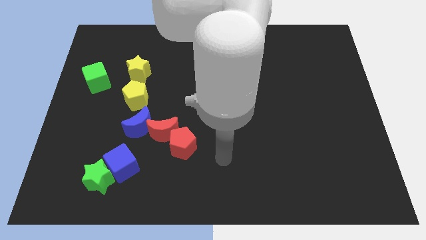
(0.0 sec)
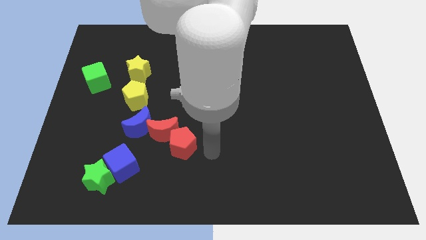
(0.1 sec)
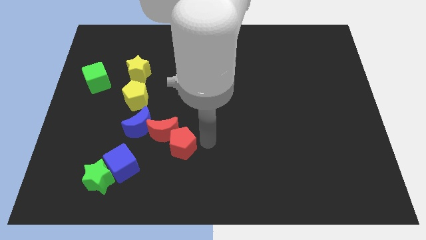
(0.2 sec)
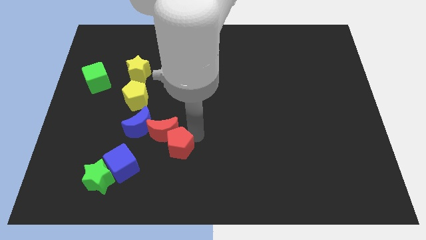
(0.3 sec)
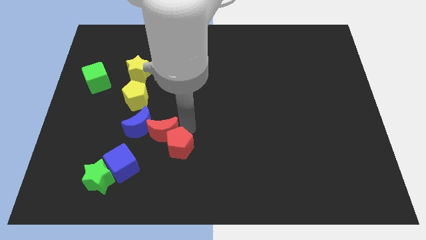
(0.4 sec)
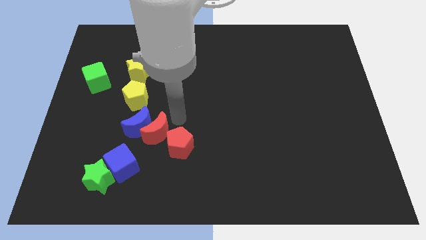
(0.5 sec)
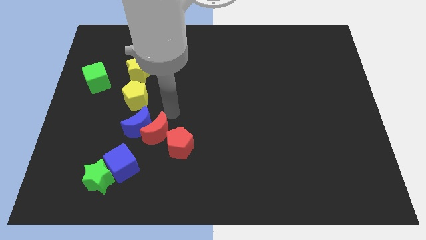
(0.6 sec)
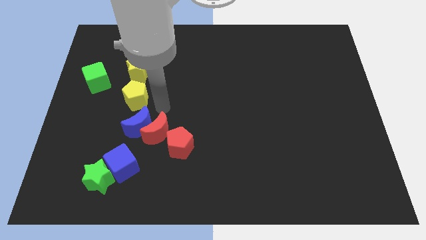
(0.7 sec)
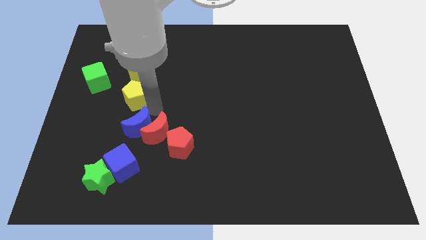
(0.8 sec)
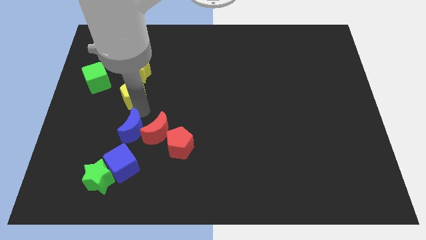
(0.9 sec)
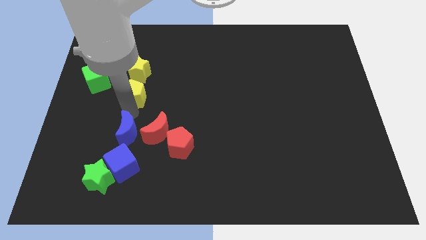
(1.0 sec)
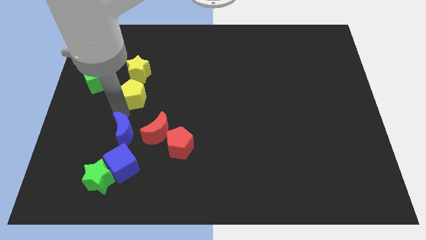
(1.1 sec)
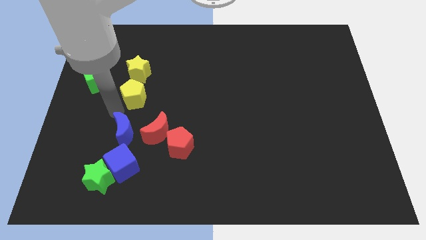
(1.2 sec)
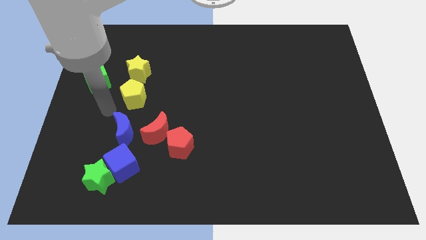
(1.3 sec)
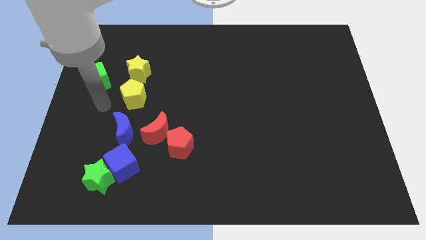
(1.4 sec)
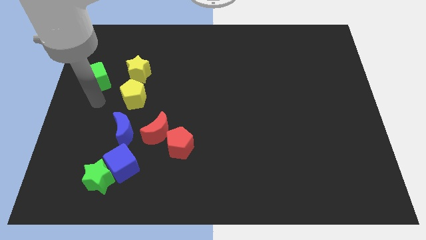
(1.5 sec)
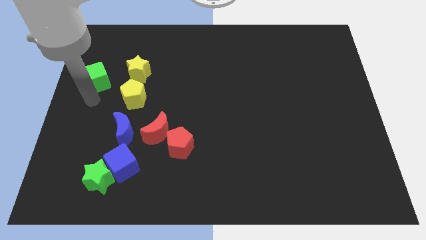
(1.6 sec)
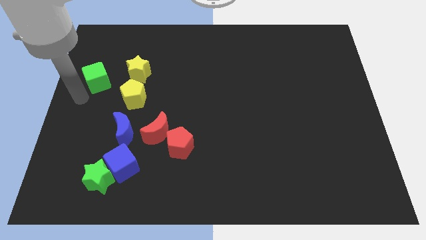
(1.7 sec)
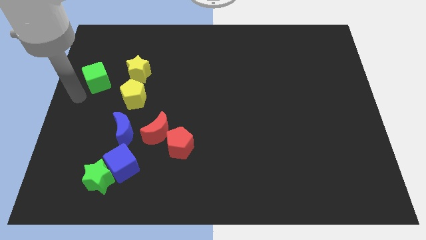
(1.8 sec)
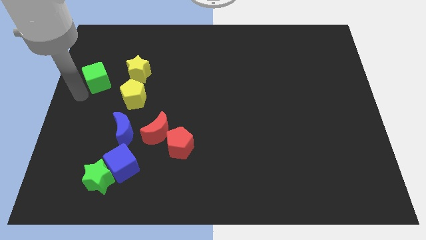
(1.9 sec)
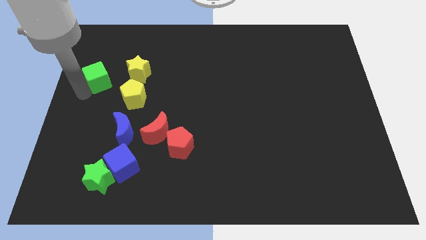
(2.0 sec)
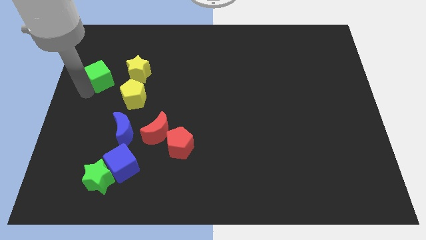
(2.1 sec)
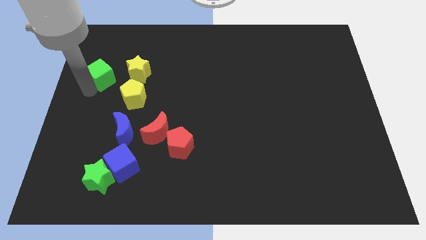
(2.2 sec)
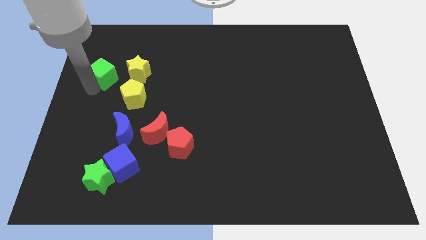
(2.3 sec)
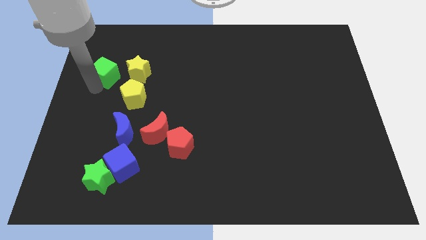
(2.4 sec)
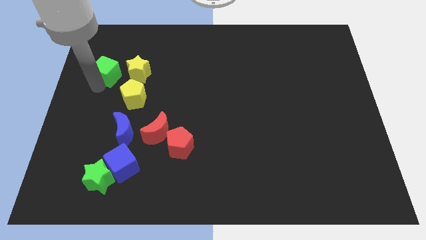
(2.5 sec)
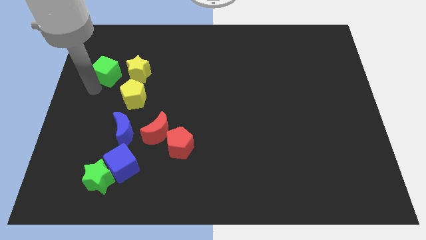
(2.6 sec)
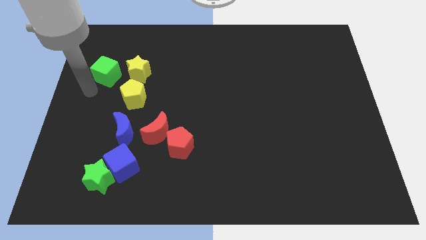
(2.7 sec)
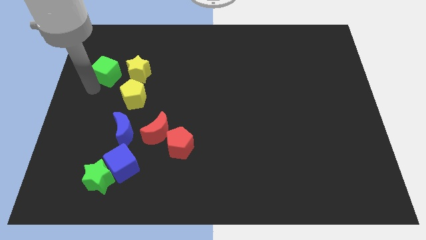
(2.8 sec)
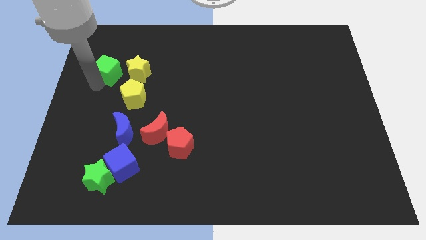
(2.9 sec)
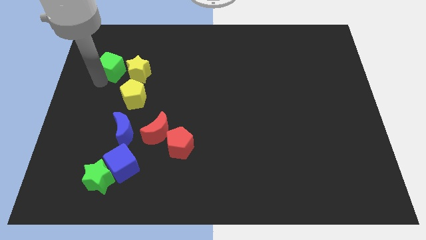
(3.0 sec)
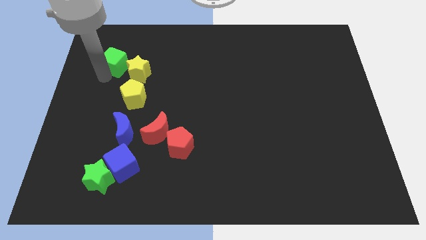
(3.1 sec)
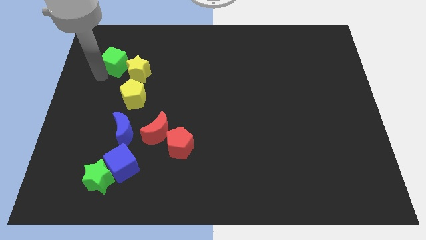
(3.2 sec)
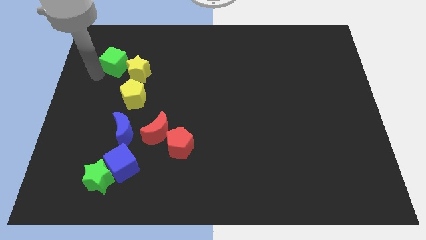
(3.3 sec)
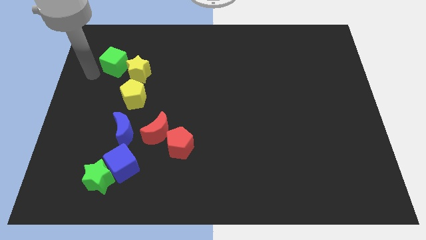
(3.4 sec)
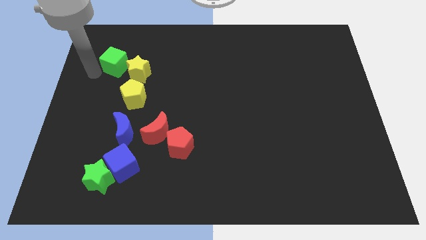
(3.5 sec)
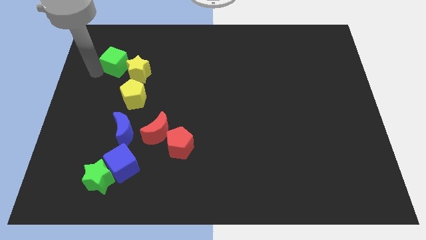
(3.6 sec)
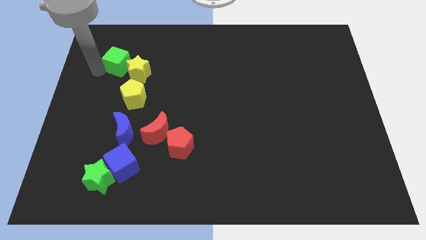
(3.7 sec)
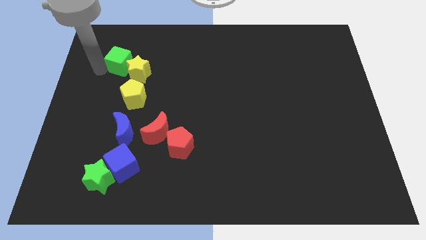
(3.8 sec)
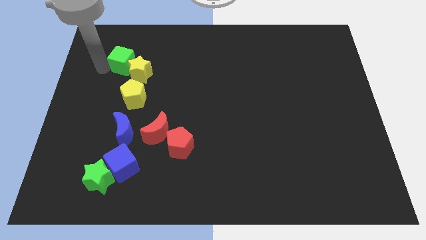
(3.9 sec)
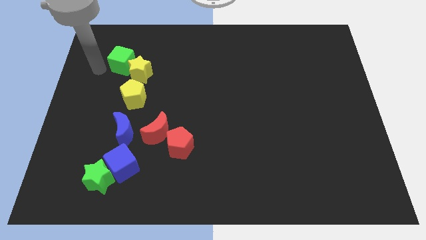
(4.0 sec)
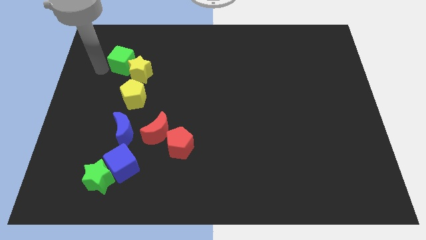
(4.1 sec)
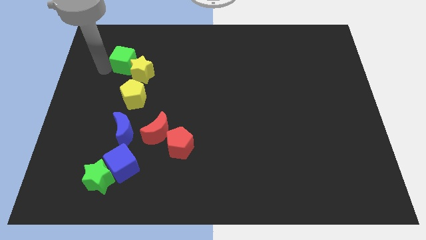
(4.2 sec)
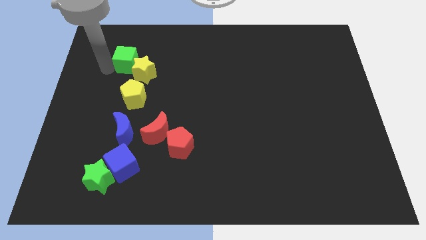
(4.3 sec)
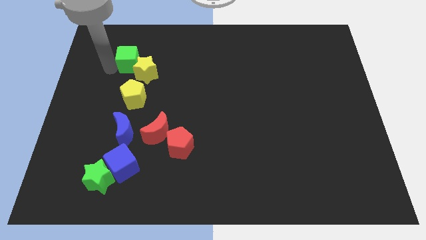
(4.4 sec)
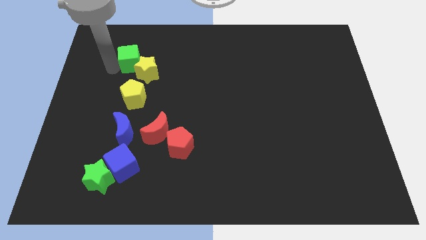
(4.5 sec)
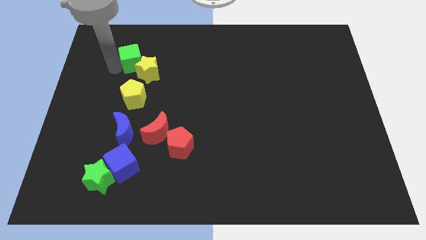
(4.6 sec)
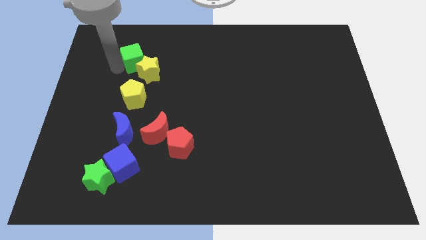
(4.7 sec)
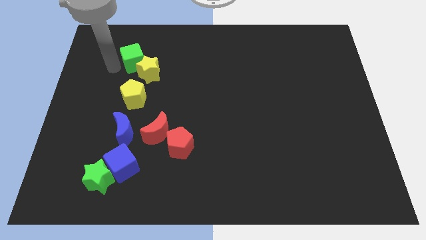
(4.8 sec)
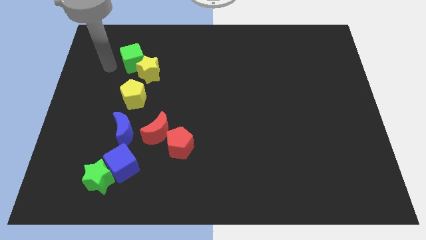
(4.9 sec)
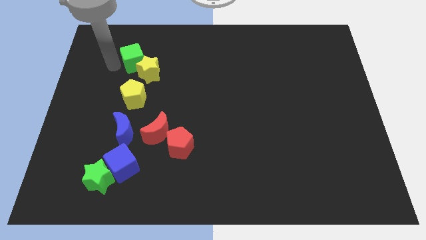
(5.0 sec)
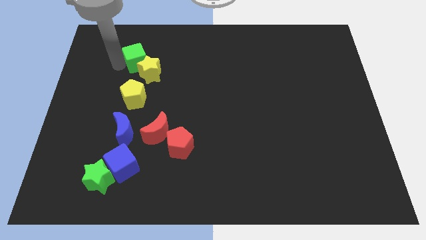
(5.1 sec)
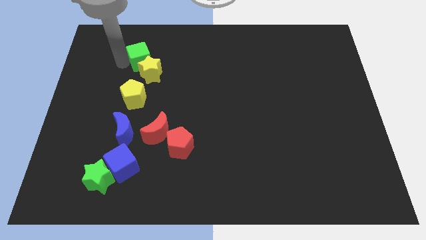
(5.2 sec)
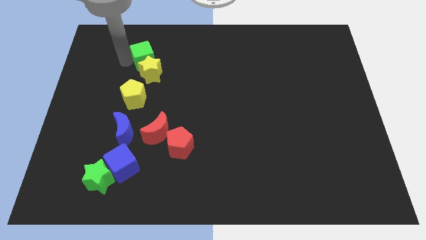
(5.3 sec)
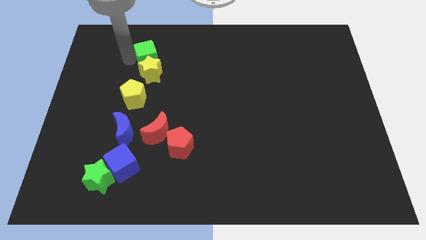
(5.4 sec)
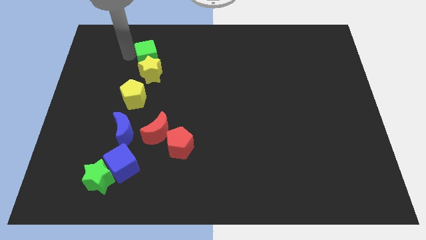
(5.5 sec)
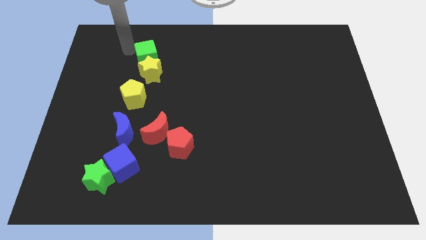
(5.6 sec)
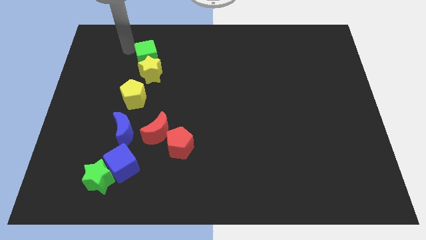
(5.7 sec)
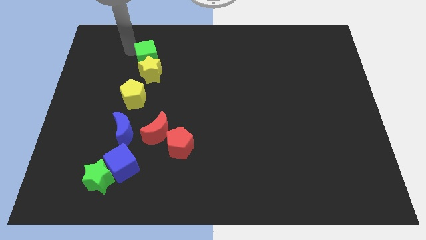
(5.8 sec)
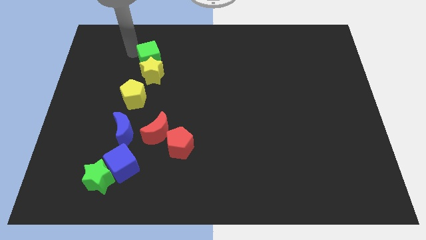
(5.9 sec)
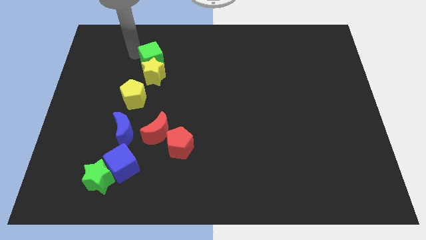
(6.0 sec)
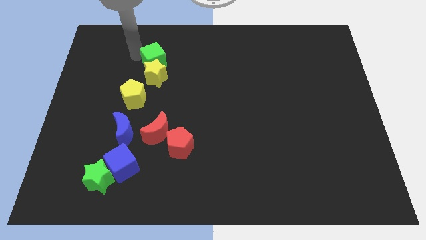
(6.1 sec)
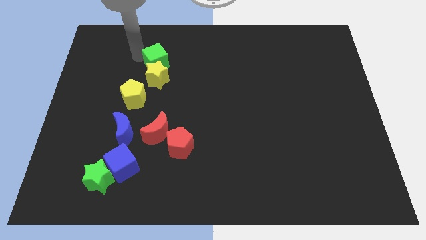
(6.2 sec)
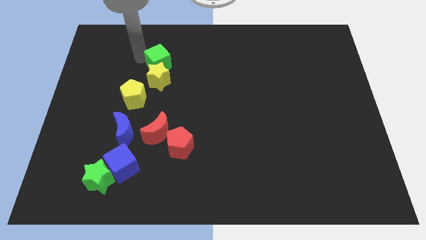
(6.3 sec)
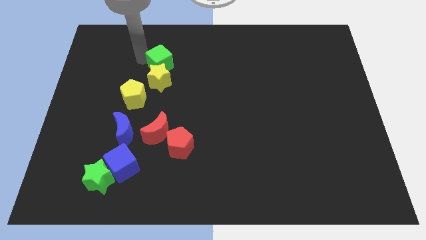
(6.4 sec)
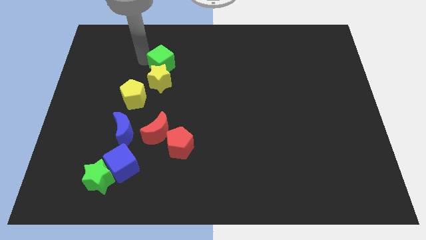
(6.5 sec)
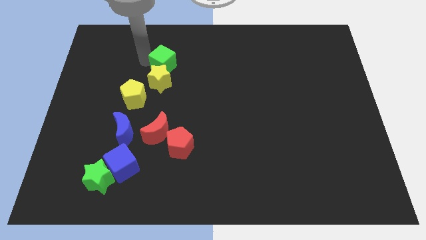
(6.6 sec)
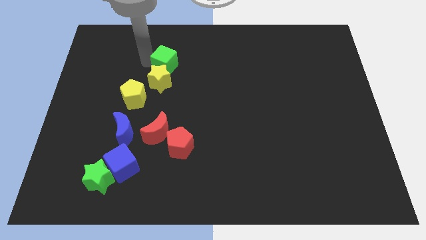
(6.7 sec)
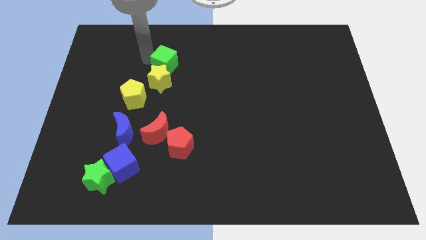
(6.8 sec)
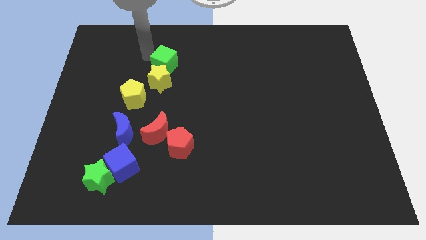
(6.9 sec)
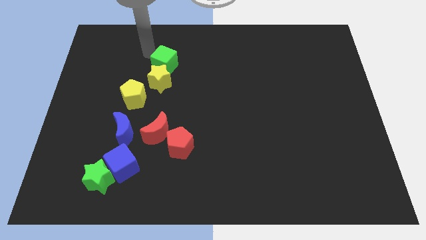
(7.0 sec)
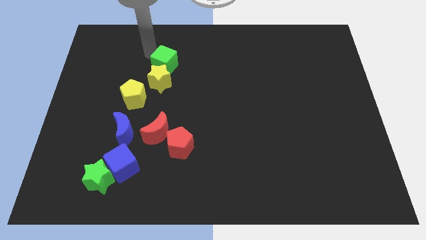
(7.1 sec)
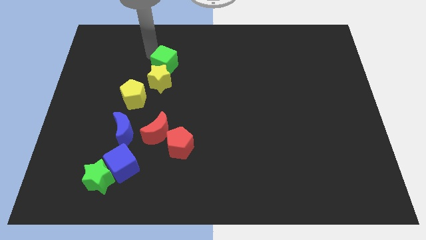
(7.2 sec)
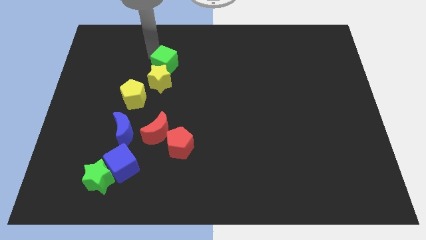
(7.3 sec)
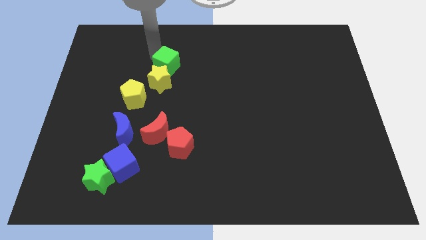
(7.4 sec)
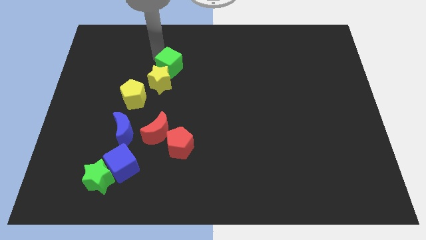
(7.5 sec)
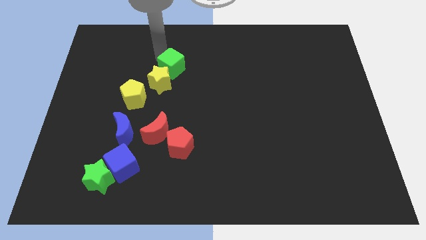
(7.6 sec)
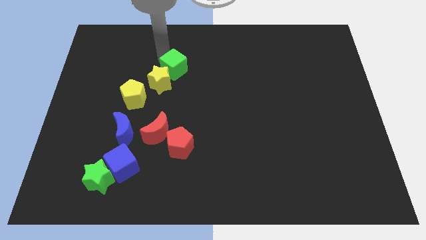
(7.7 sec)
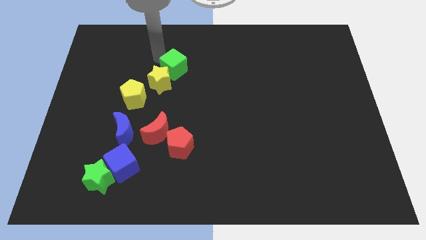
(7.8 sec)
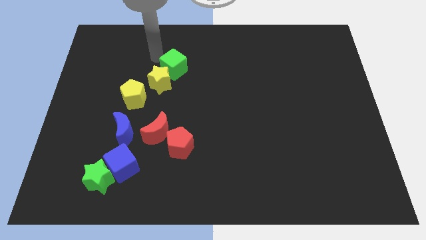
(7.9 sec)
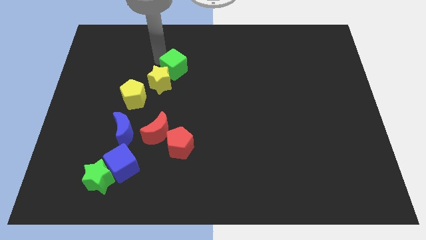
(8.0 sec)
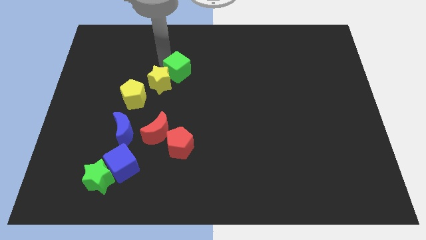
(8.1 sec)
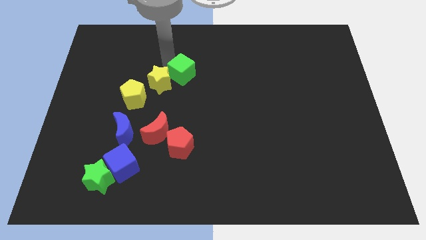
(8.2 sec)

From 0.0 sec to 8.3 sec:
slide the green cube to the right
